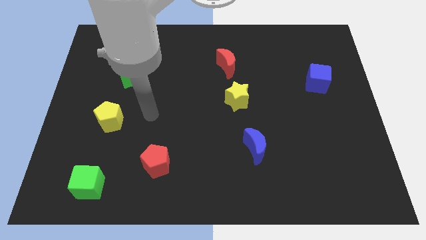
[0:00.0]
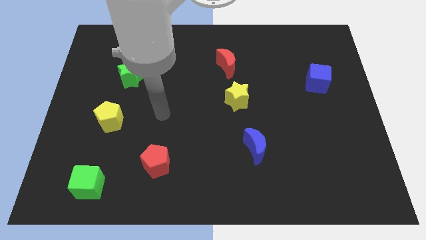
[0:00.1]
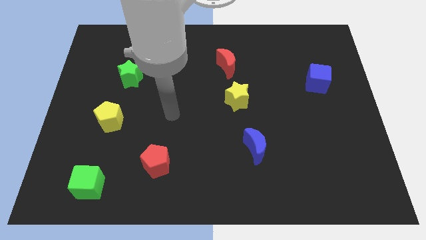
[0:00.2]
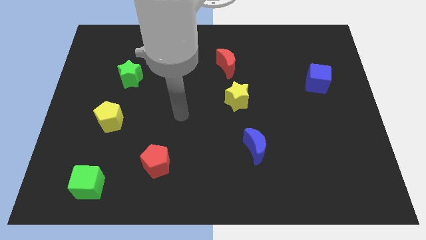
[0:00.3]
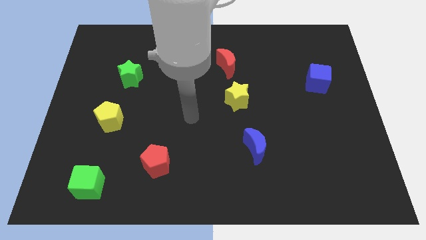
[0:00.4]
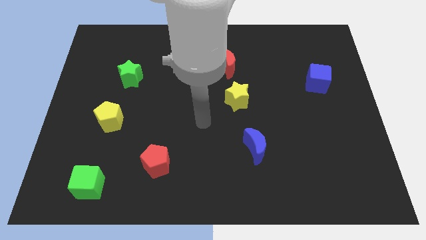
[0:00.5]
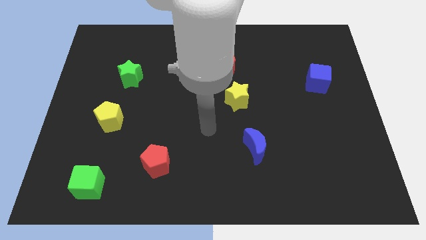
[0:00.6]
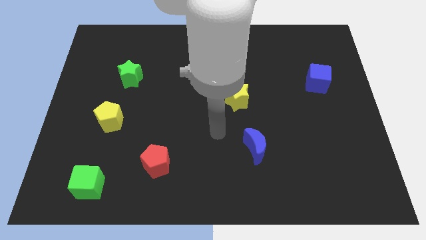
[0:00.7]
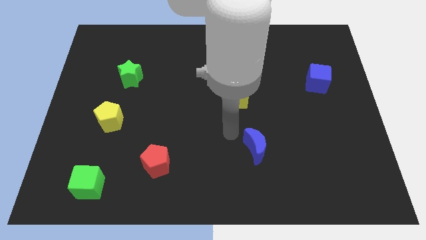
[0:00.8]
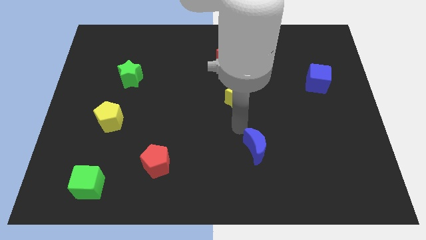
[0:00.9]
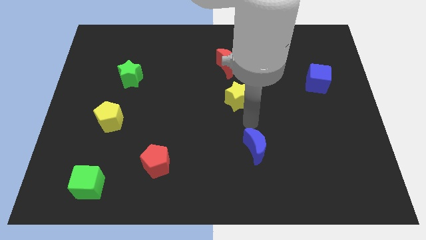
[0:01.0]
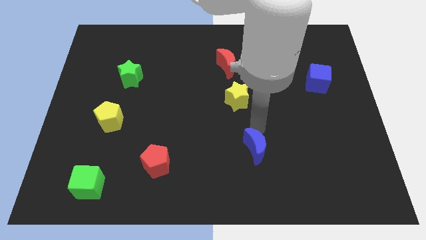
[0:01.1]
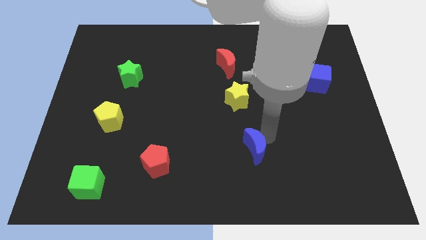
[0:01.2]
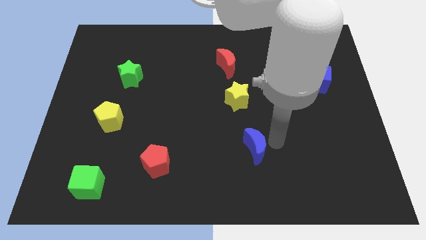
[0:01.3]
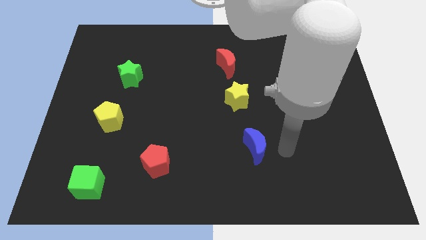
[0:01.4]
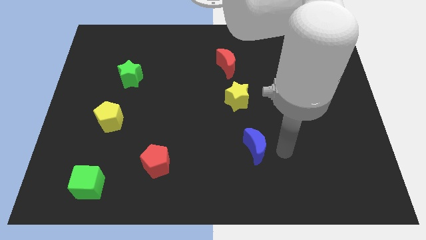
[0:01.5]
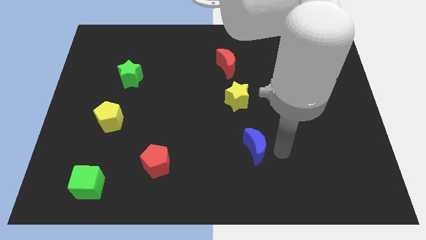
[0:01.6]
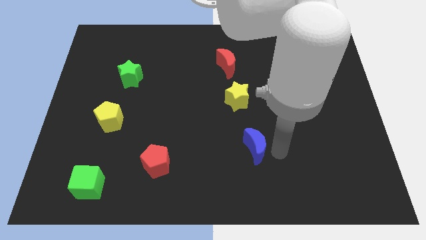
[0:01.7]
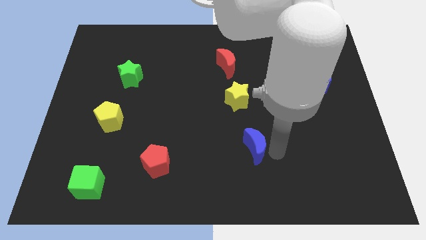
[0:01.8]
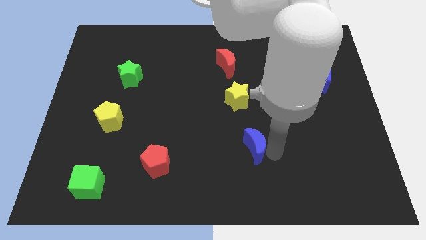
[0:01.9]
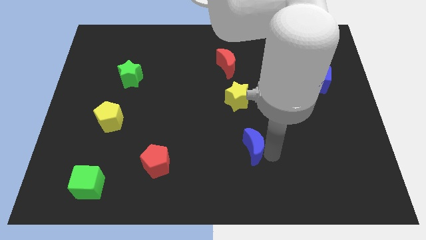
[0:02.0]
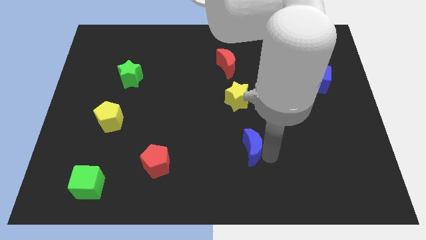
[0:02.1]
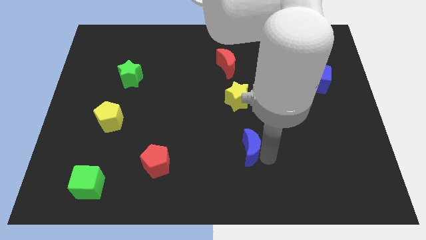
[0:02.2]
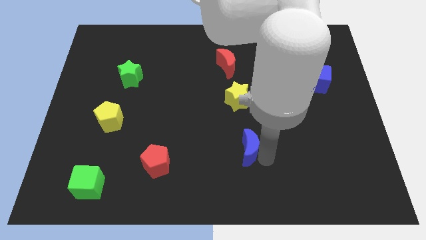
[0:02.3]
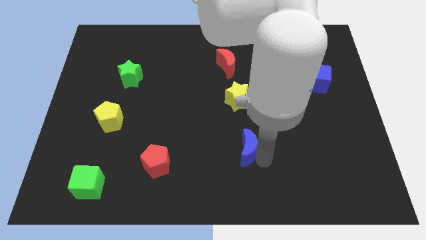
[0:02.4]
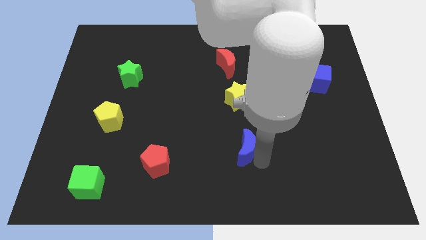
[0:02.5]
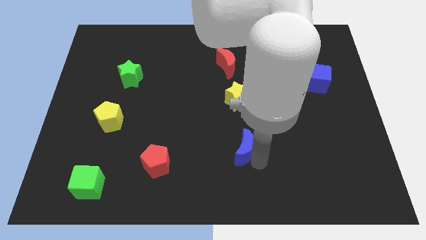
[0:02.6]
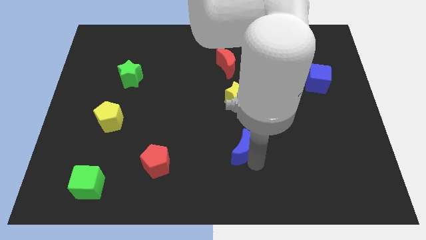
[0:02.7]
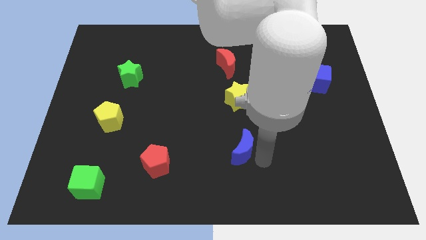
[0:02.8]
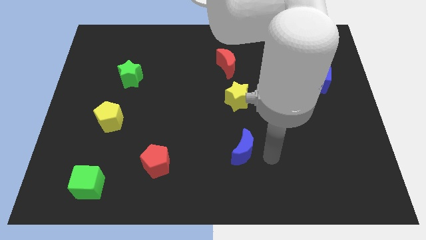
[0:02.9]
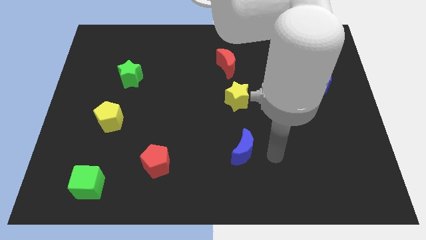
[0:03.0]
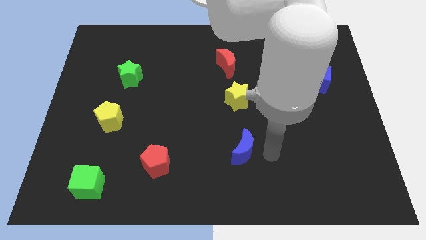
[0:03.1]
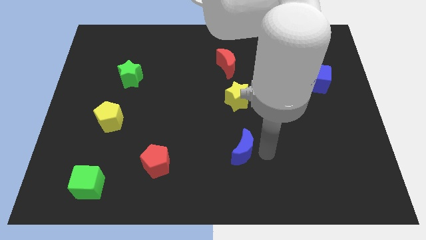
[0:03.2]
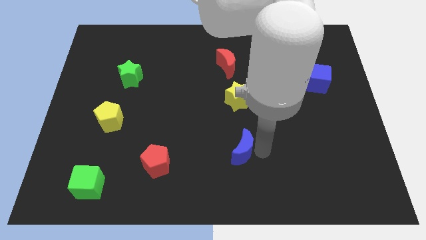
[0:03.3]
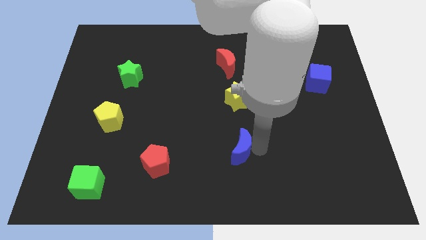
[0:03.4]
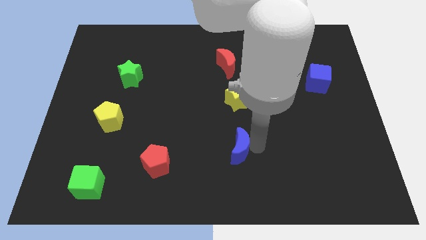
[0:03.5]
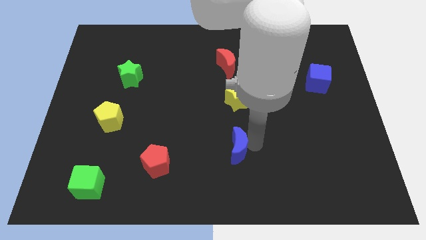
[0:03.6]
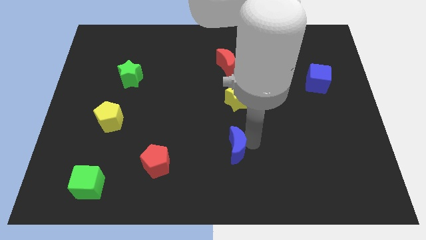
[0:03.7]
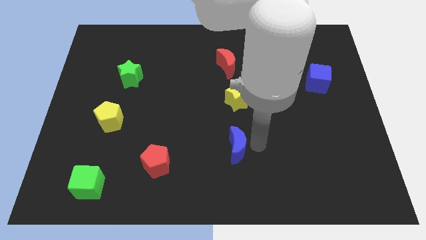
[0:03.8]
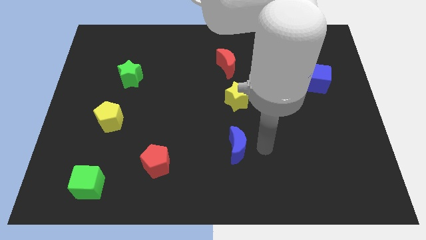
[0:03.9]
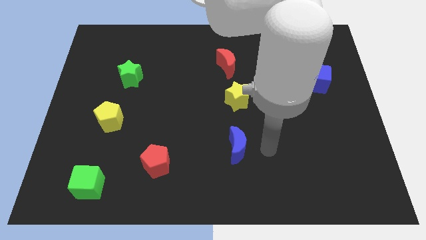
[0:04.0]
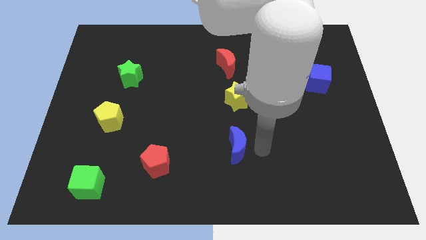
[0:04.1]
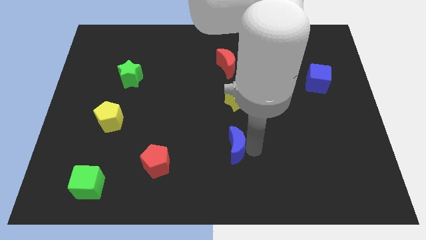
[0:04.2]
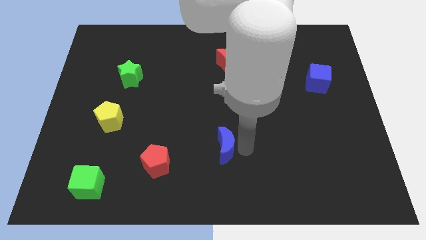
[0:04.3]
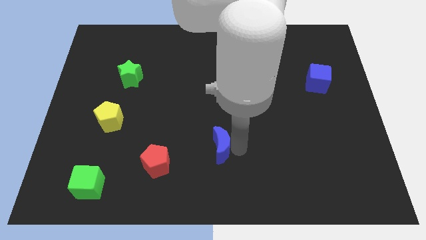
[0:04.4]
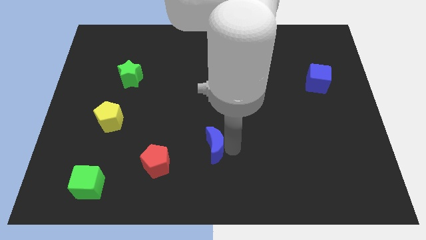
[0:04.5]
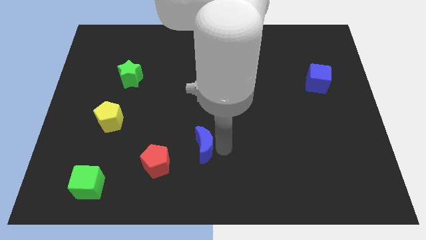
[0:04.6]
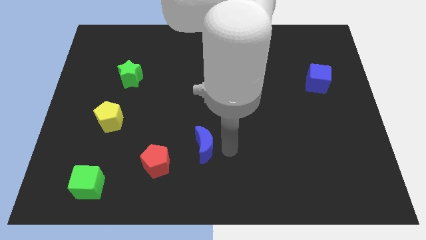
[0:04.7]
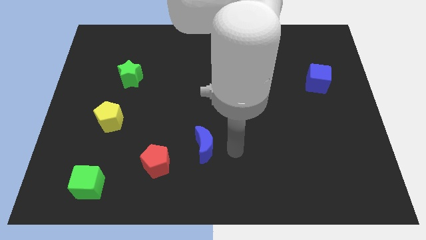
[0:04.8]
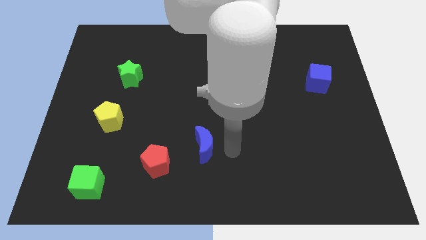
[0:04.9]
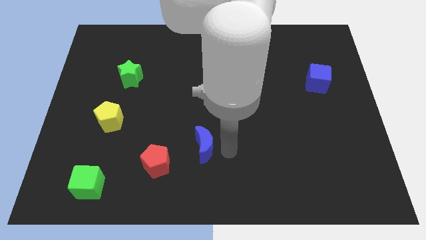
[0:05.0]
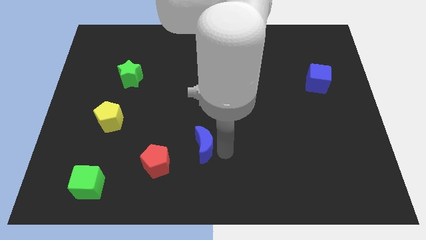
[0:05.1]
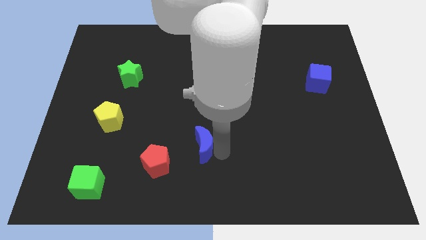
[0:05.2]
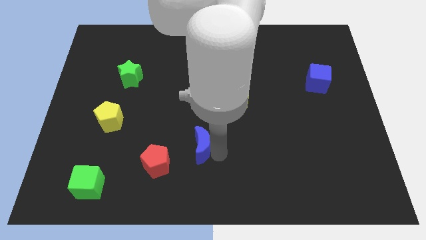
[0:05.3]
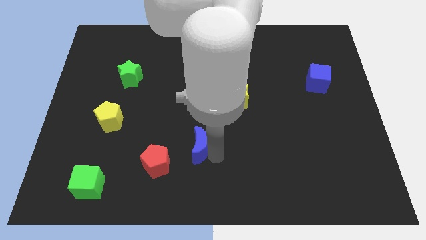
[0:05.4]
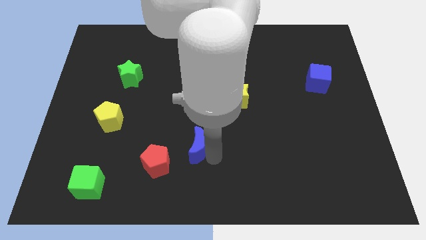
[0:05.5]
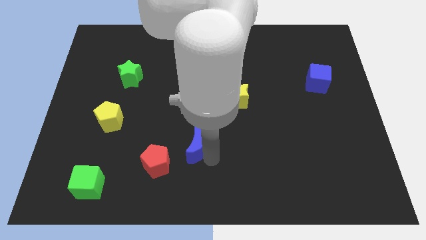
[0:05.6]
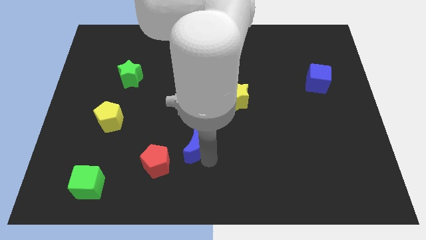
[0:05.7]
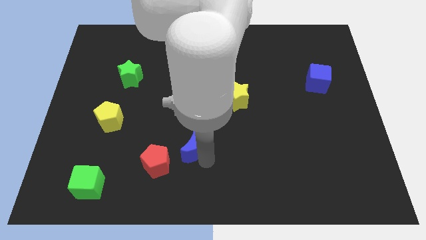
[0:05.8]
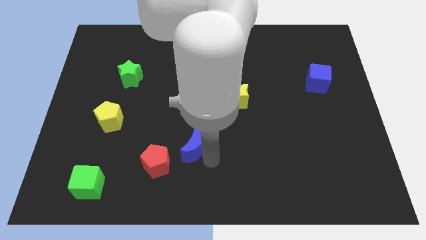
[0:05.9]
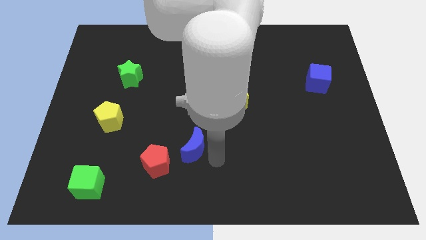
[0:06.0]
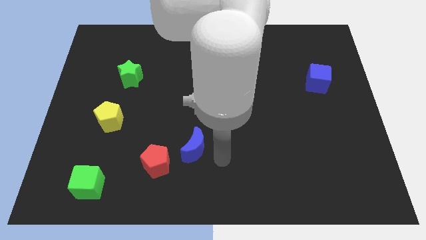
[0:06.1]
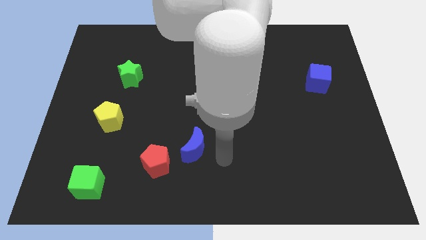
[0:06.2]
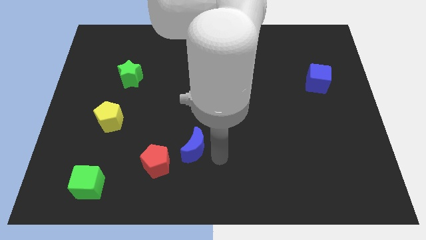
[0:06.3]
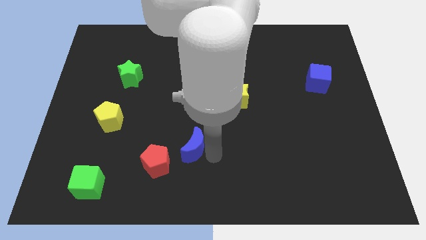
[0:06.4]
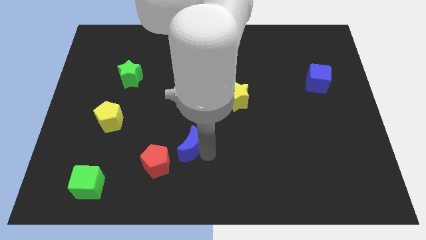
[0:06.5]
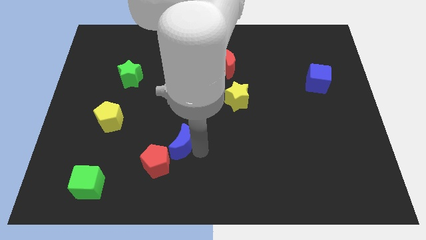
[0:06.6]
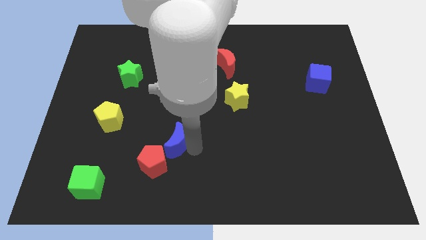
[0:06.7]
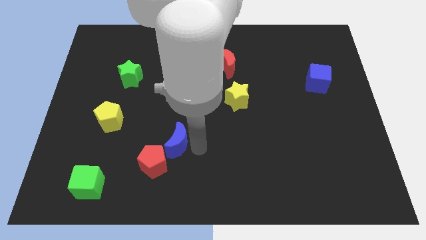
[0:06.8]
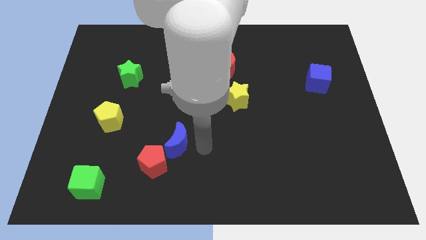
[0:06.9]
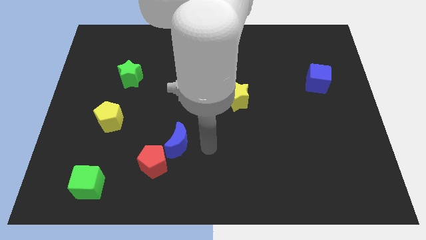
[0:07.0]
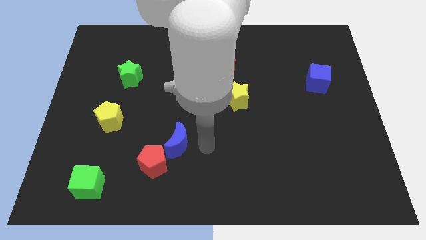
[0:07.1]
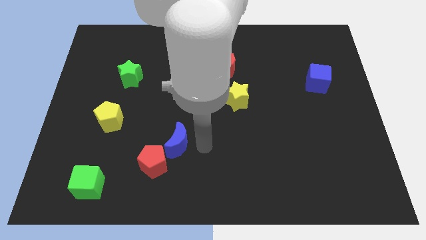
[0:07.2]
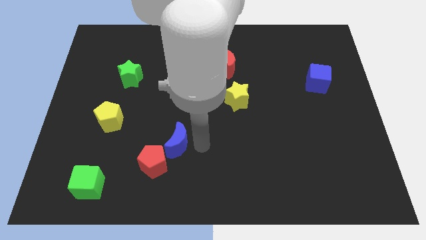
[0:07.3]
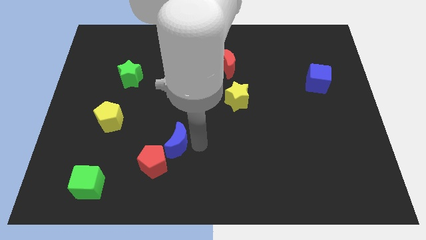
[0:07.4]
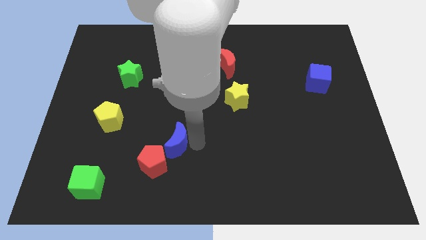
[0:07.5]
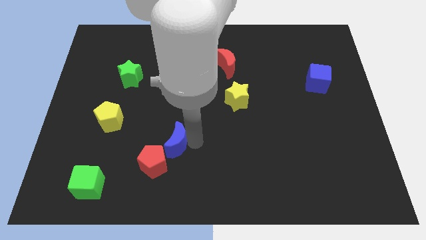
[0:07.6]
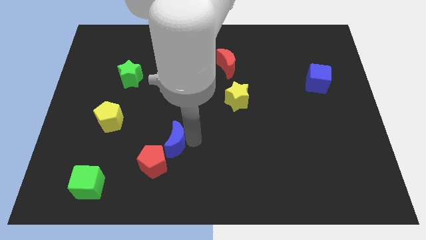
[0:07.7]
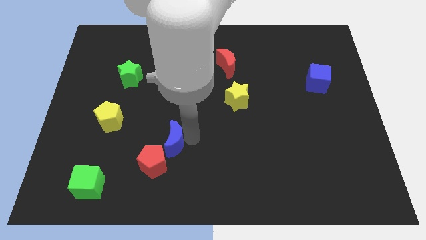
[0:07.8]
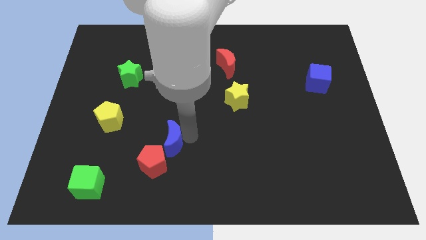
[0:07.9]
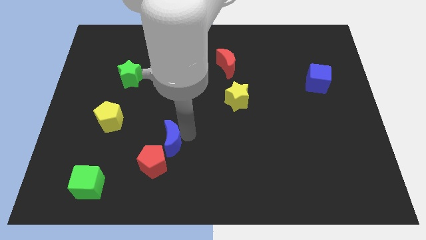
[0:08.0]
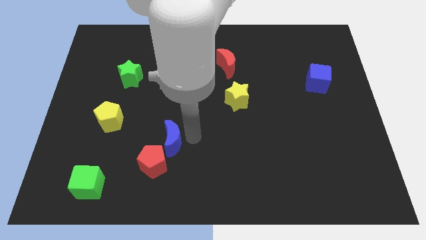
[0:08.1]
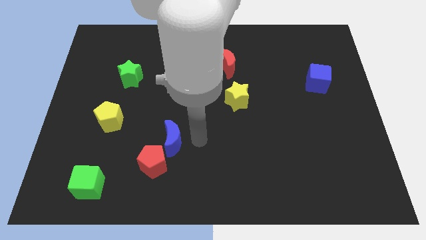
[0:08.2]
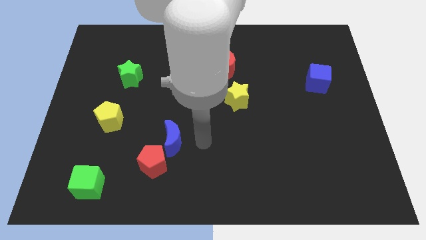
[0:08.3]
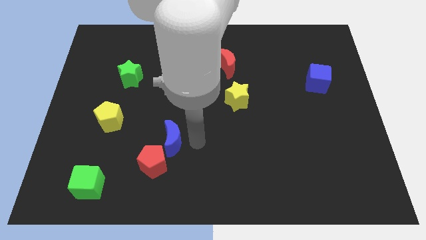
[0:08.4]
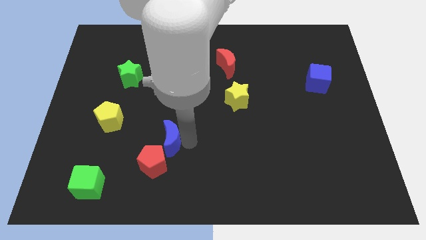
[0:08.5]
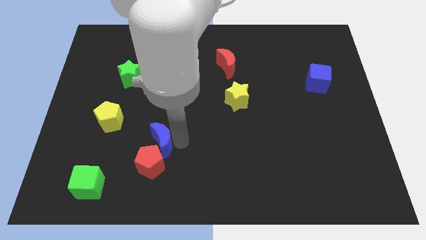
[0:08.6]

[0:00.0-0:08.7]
move the blue moon left
